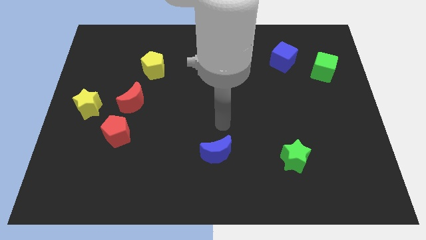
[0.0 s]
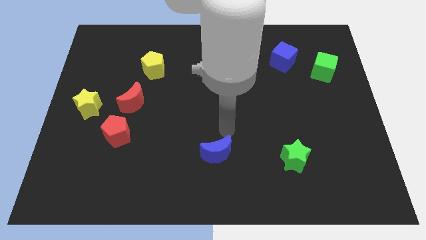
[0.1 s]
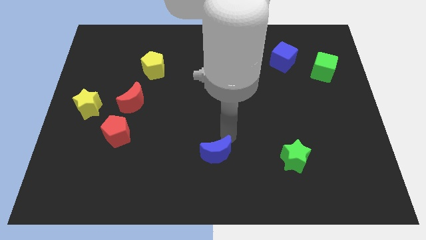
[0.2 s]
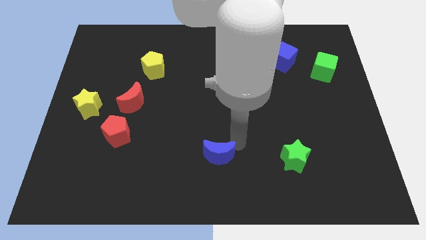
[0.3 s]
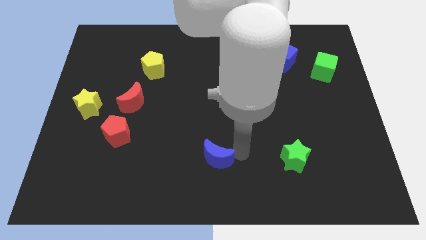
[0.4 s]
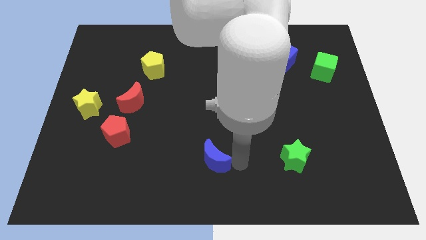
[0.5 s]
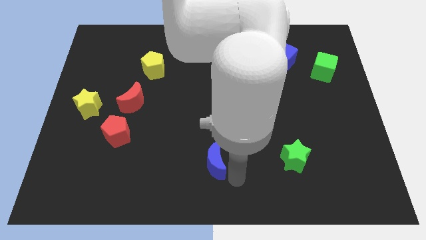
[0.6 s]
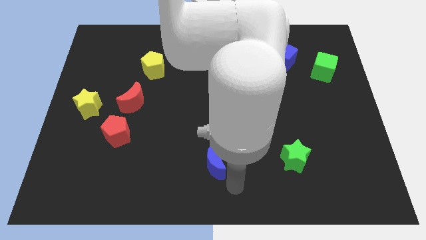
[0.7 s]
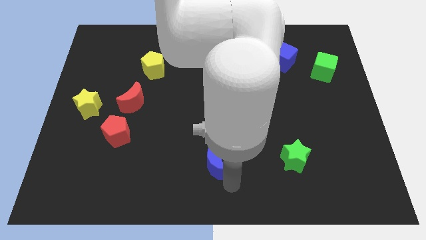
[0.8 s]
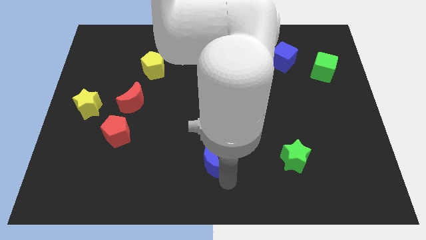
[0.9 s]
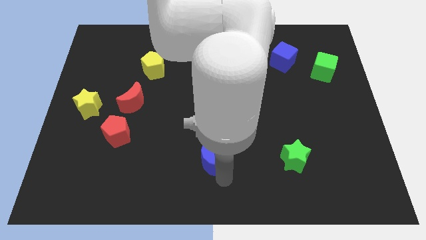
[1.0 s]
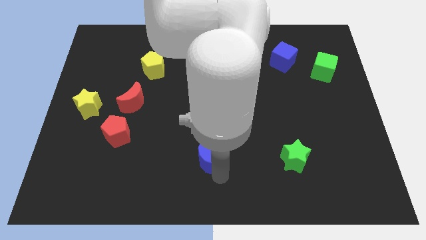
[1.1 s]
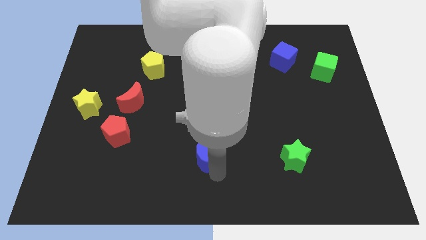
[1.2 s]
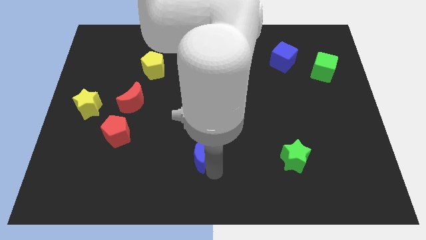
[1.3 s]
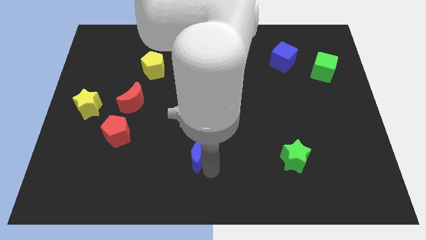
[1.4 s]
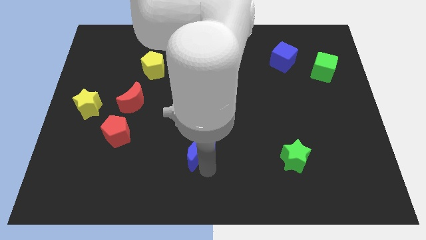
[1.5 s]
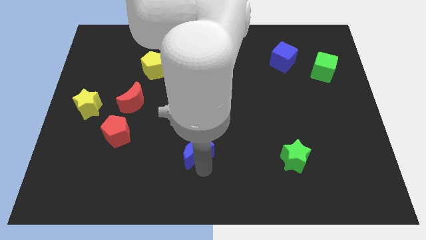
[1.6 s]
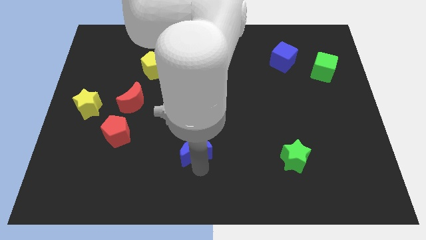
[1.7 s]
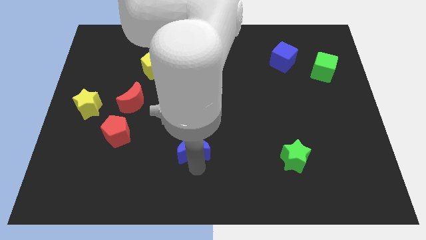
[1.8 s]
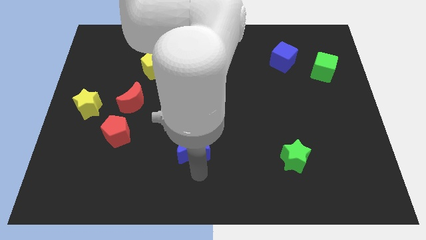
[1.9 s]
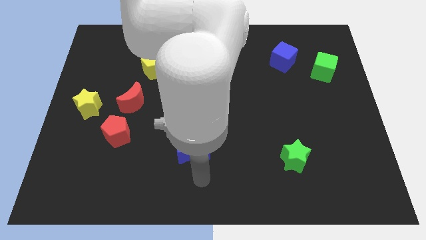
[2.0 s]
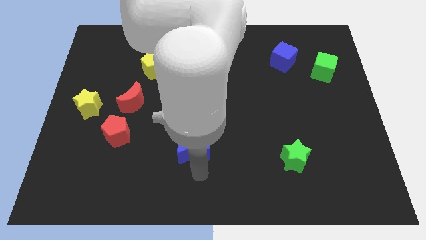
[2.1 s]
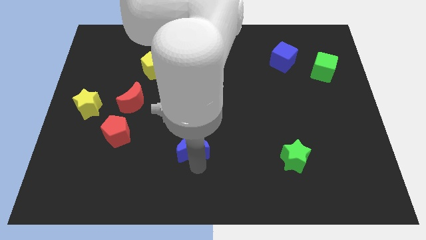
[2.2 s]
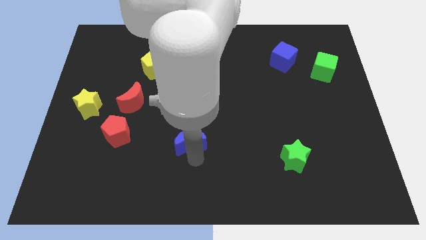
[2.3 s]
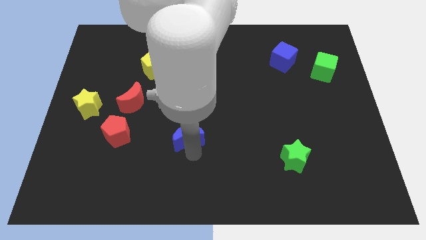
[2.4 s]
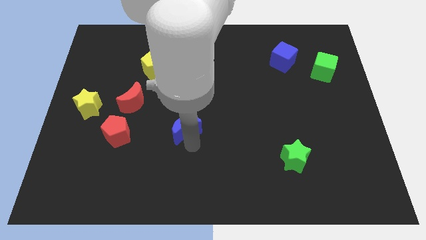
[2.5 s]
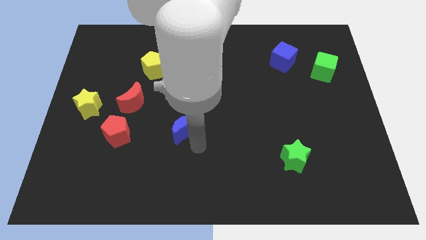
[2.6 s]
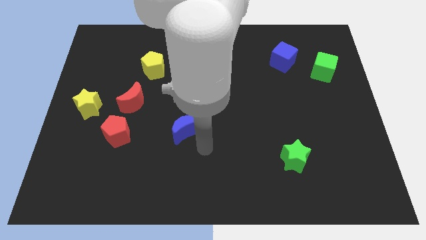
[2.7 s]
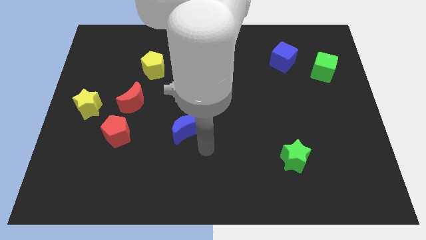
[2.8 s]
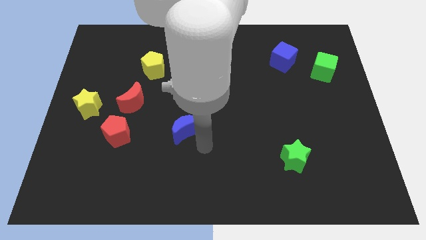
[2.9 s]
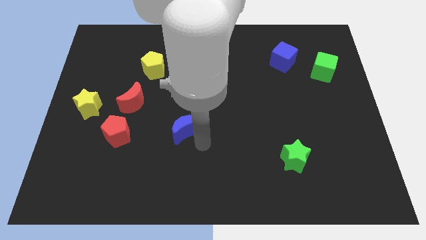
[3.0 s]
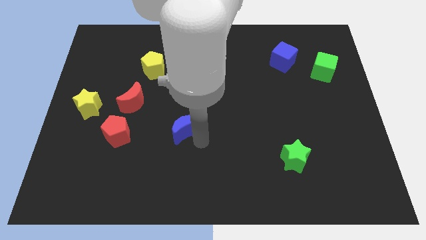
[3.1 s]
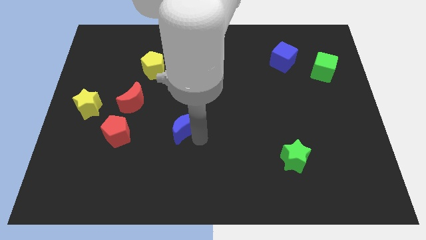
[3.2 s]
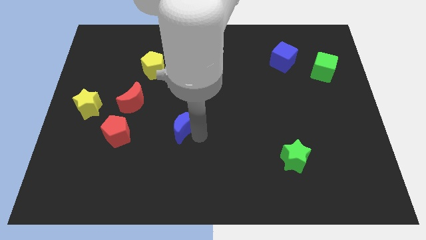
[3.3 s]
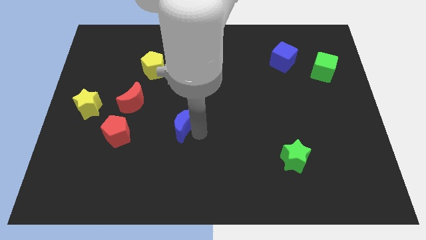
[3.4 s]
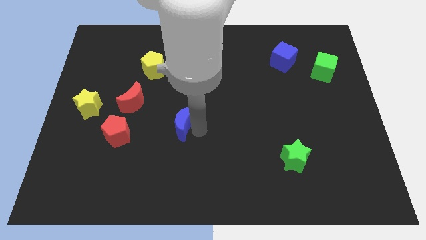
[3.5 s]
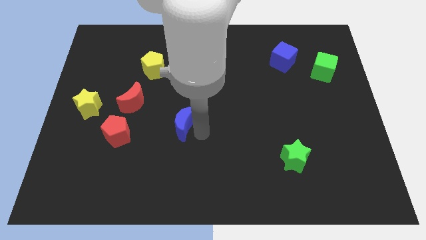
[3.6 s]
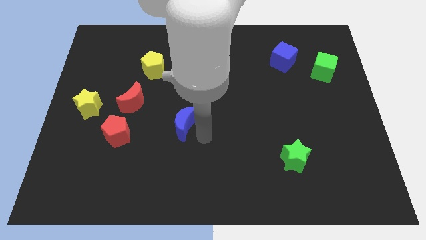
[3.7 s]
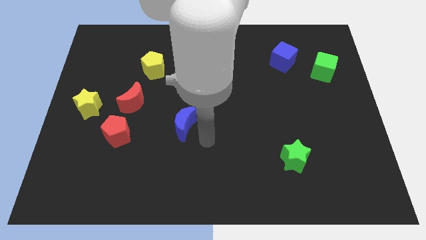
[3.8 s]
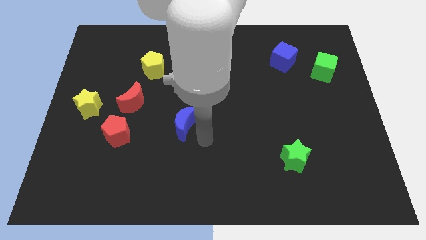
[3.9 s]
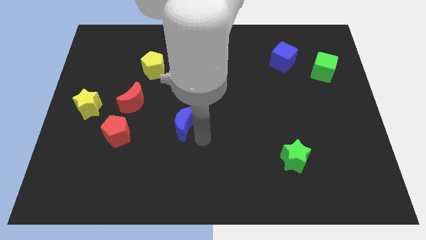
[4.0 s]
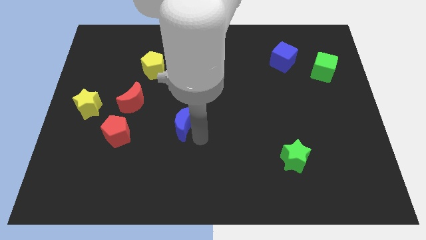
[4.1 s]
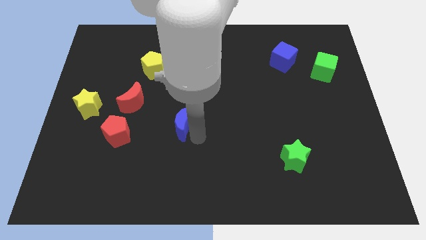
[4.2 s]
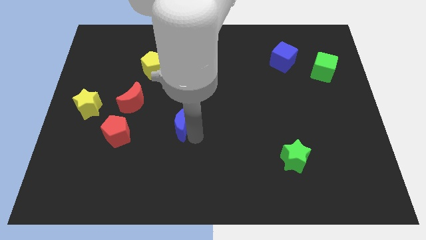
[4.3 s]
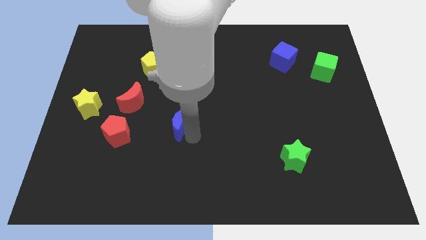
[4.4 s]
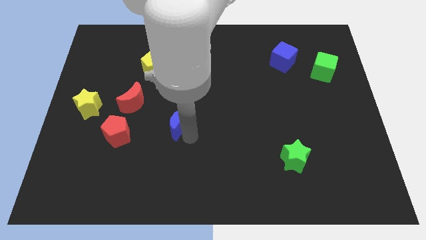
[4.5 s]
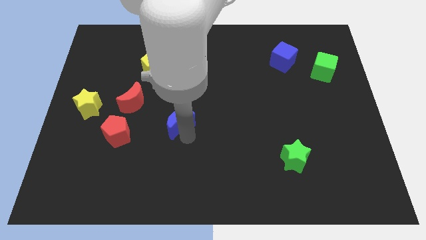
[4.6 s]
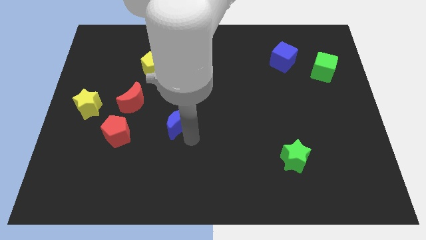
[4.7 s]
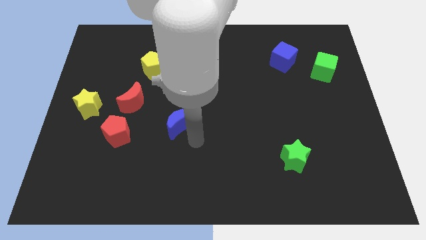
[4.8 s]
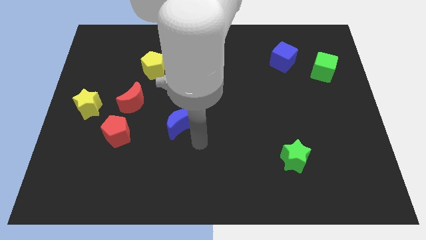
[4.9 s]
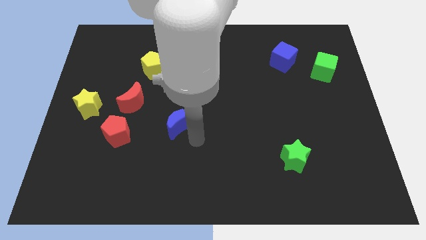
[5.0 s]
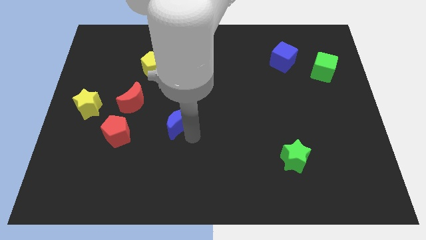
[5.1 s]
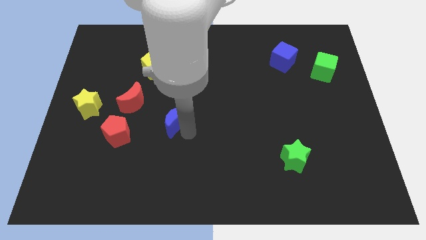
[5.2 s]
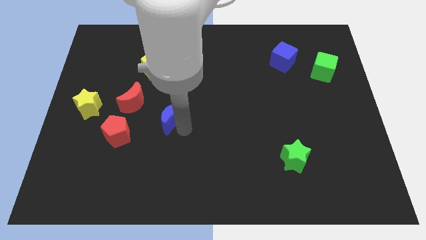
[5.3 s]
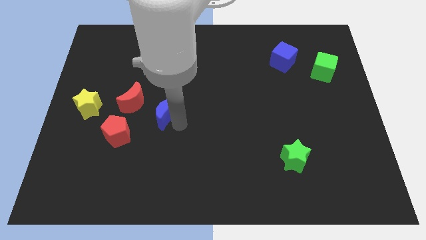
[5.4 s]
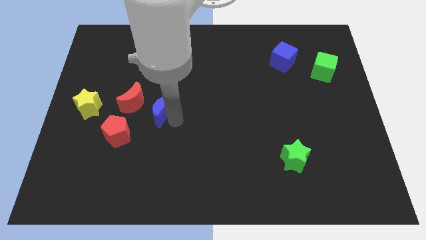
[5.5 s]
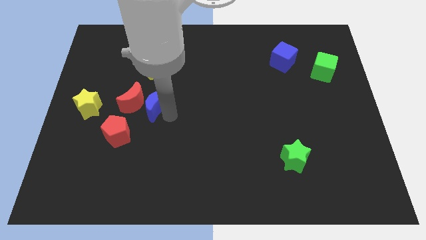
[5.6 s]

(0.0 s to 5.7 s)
slide the blue moon to the red moon

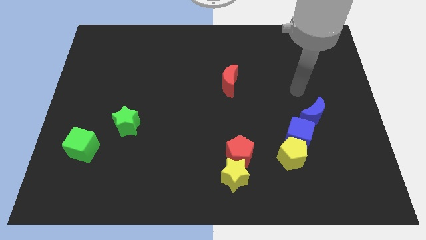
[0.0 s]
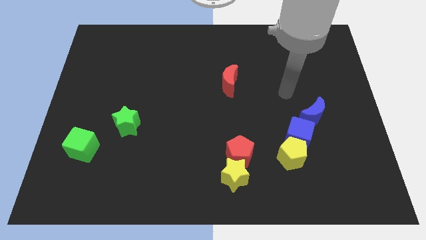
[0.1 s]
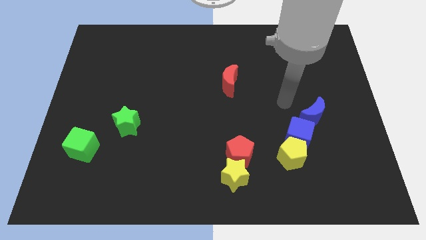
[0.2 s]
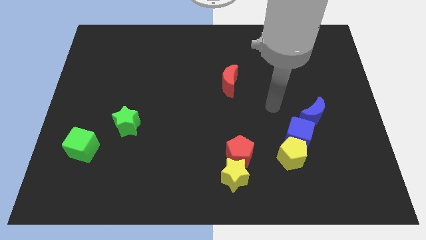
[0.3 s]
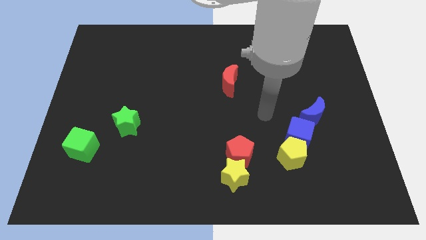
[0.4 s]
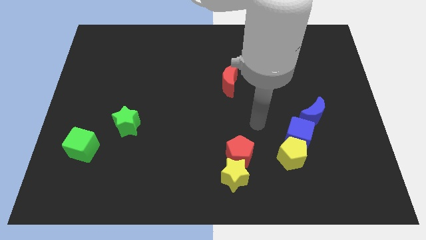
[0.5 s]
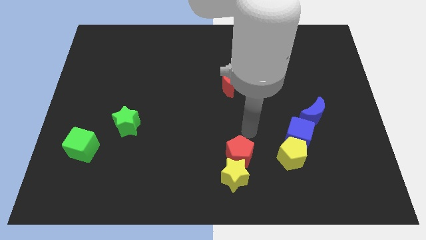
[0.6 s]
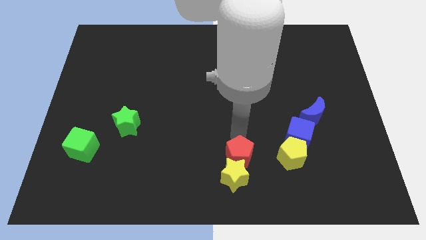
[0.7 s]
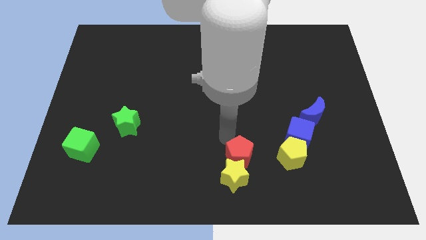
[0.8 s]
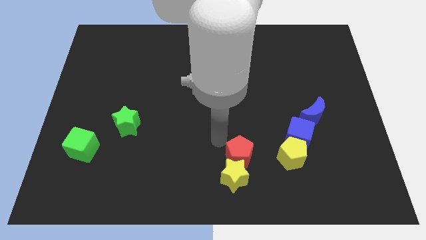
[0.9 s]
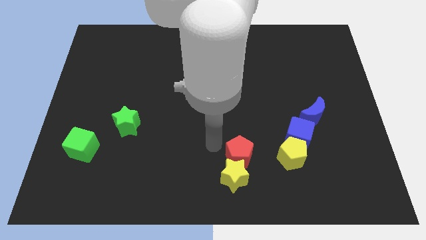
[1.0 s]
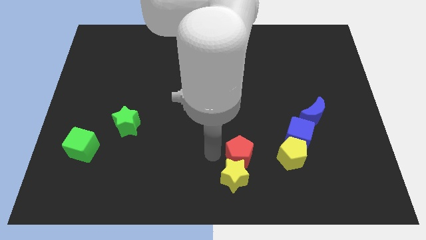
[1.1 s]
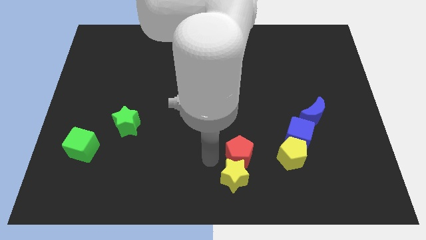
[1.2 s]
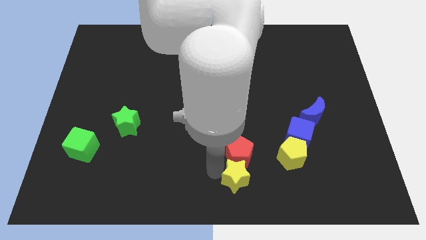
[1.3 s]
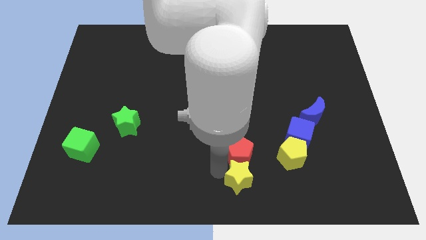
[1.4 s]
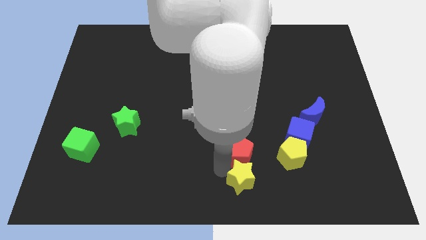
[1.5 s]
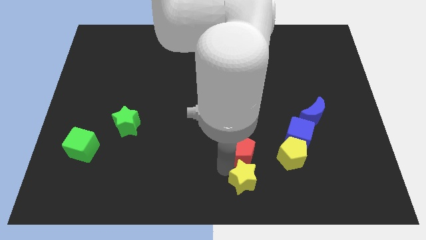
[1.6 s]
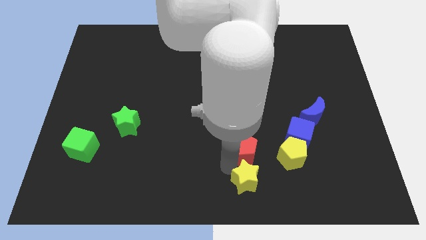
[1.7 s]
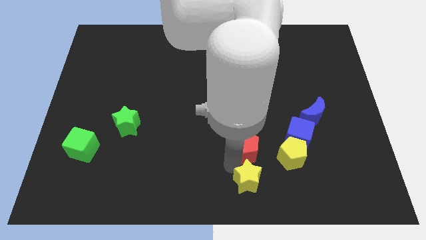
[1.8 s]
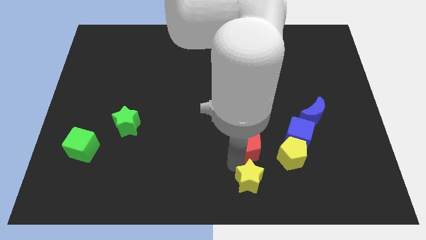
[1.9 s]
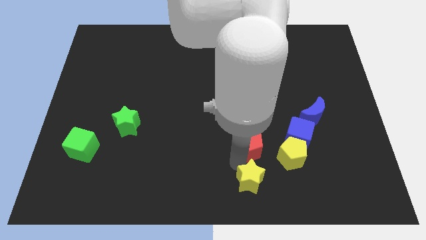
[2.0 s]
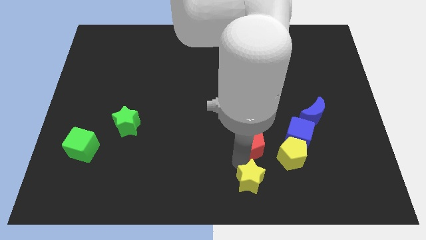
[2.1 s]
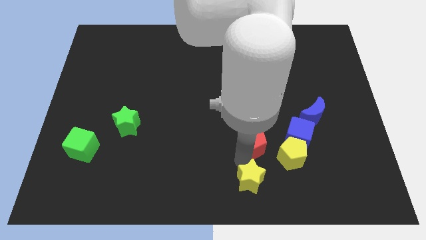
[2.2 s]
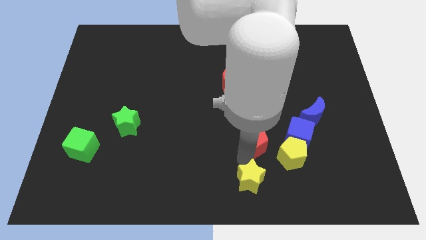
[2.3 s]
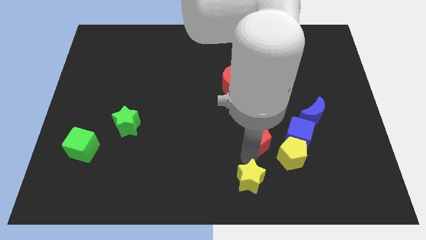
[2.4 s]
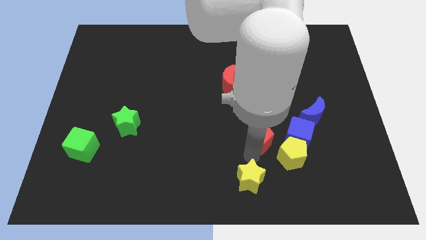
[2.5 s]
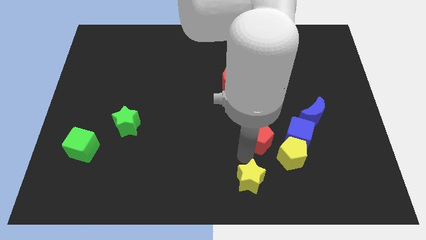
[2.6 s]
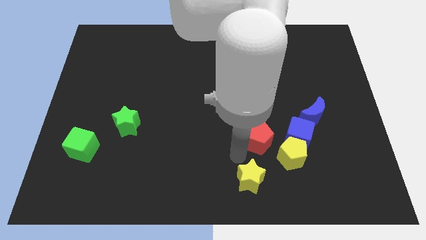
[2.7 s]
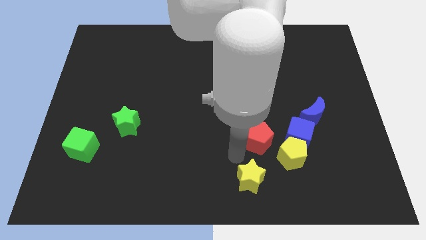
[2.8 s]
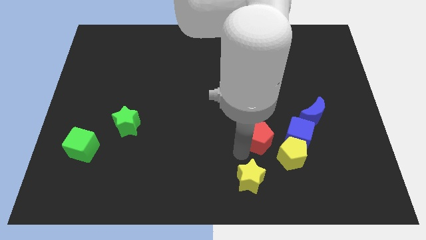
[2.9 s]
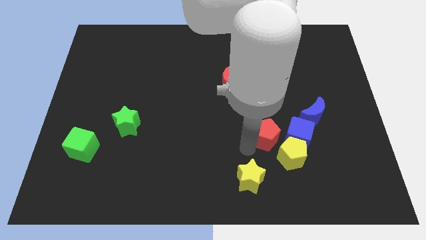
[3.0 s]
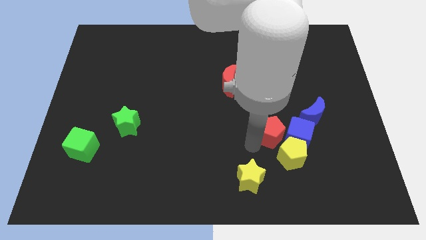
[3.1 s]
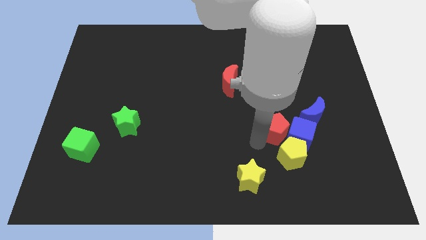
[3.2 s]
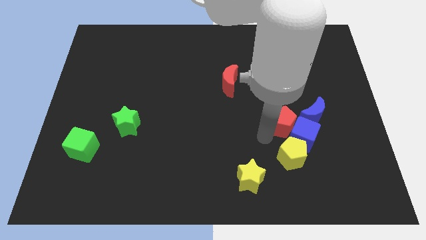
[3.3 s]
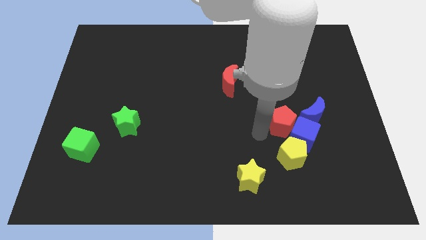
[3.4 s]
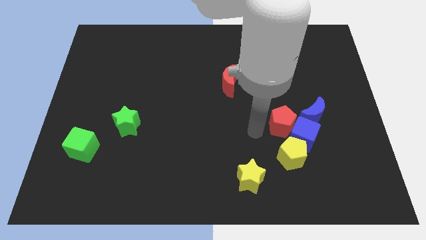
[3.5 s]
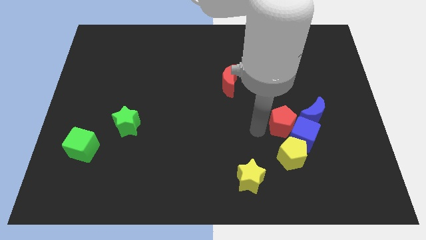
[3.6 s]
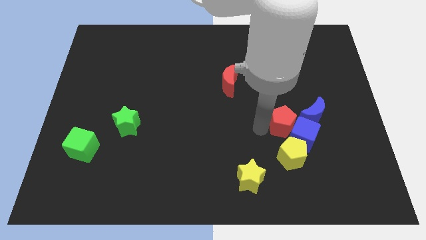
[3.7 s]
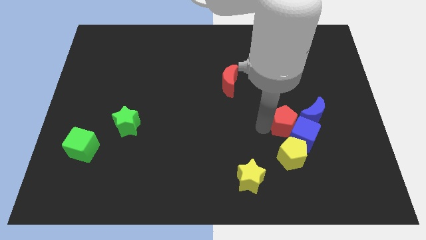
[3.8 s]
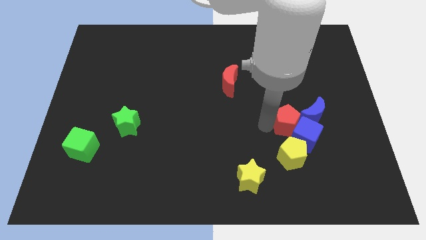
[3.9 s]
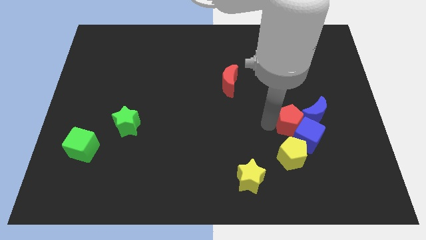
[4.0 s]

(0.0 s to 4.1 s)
slide the red pentagon close to the blue moon
